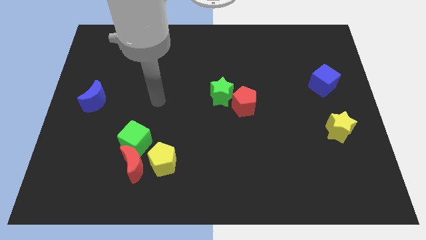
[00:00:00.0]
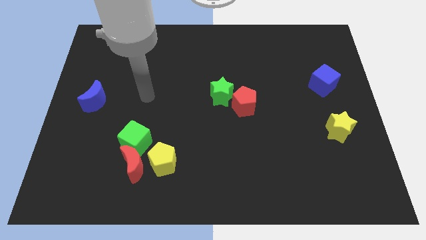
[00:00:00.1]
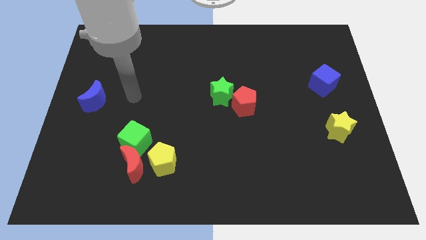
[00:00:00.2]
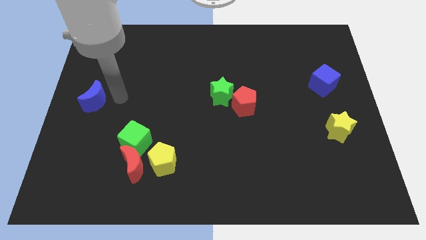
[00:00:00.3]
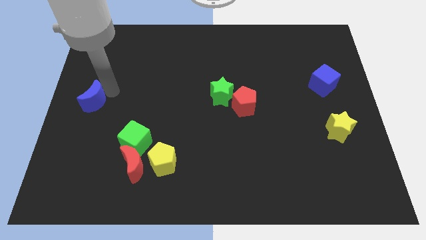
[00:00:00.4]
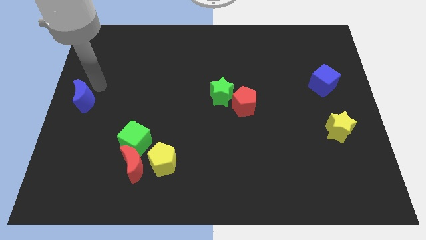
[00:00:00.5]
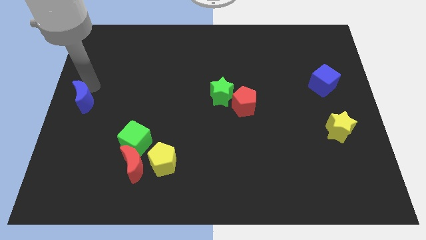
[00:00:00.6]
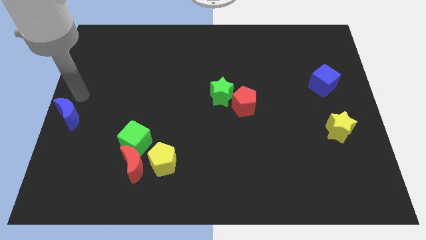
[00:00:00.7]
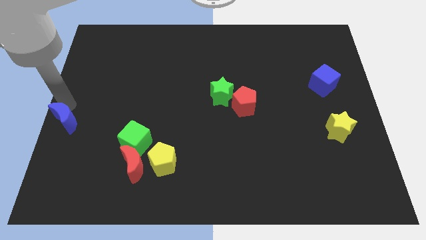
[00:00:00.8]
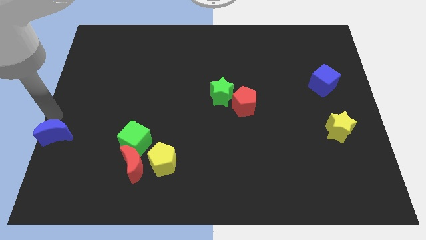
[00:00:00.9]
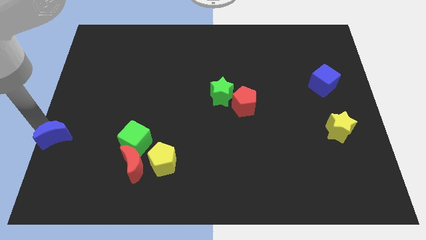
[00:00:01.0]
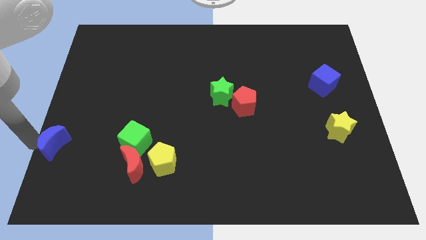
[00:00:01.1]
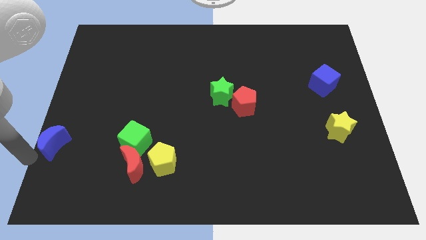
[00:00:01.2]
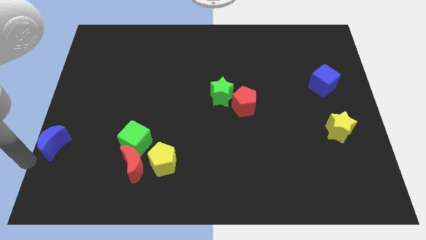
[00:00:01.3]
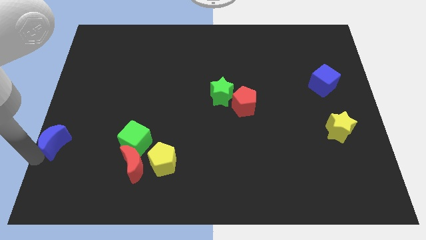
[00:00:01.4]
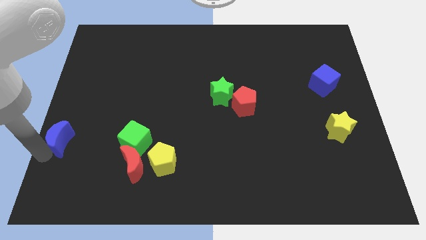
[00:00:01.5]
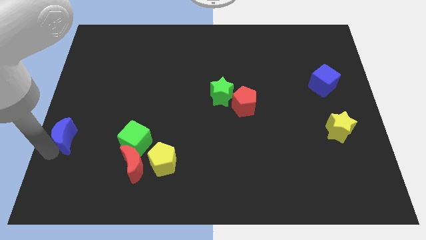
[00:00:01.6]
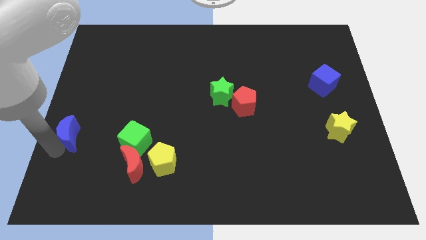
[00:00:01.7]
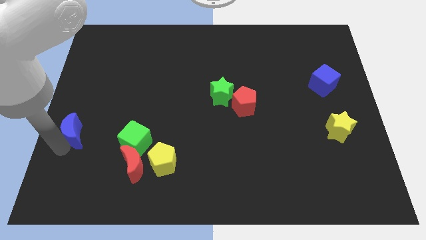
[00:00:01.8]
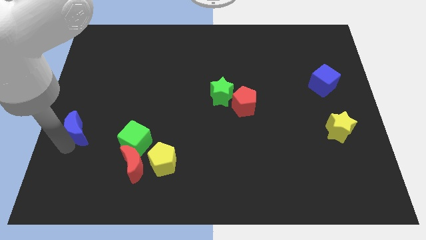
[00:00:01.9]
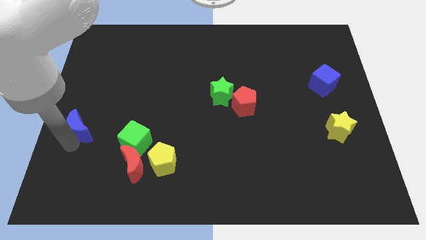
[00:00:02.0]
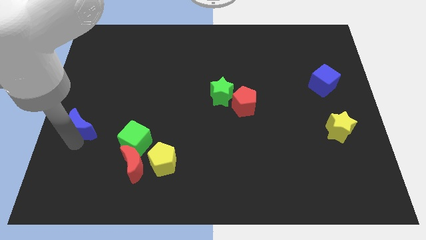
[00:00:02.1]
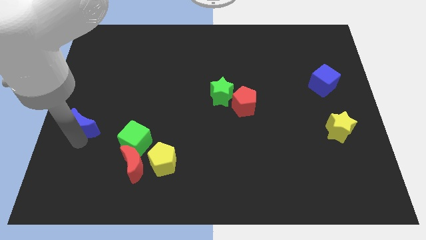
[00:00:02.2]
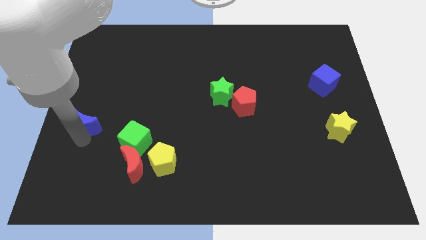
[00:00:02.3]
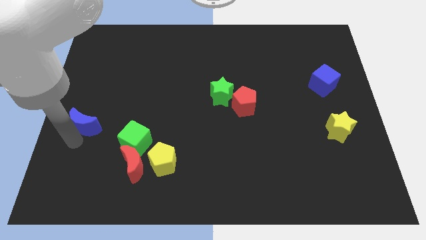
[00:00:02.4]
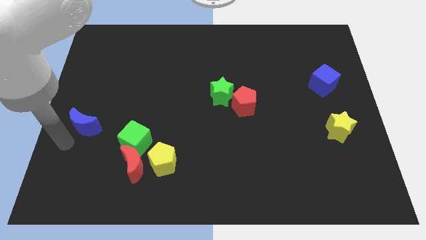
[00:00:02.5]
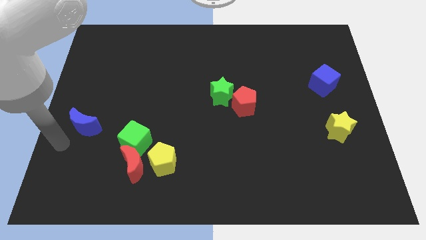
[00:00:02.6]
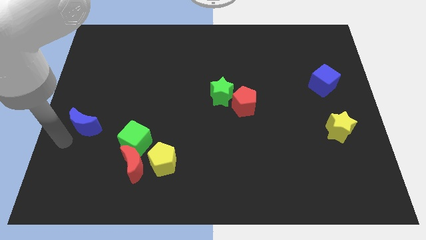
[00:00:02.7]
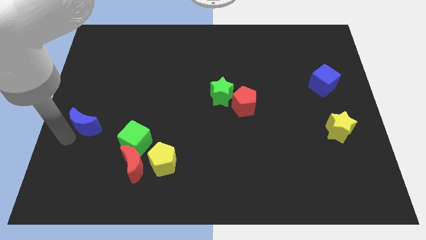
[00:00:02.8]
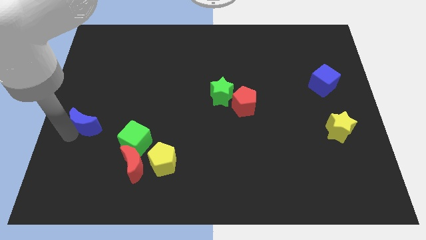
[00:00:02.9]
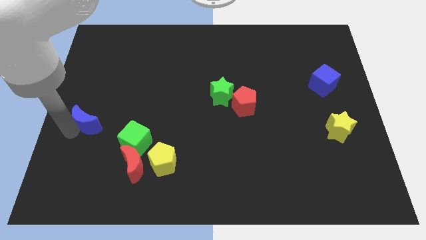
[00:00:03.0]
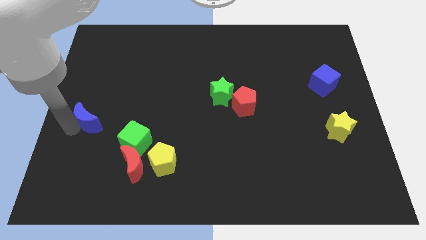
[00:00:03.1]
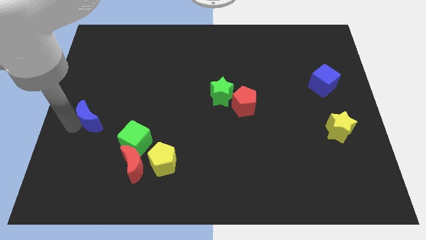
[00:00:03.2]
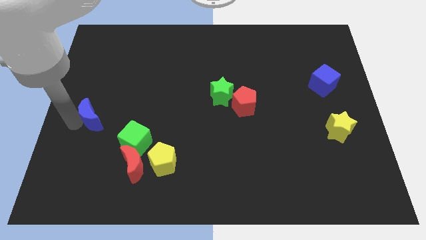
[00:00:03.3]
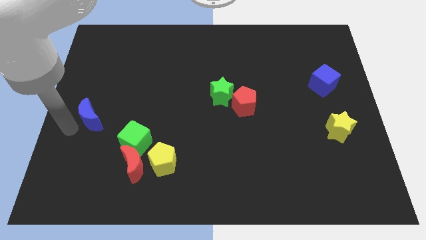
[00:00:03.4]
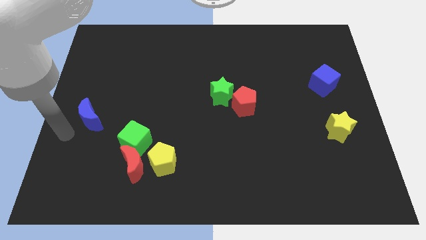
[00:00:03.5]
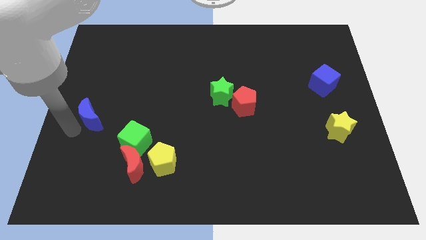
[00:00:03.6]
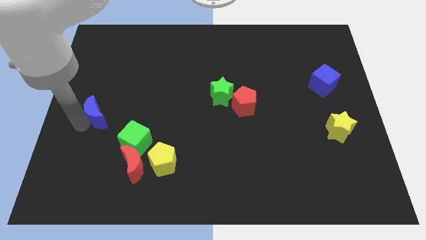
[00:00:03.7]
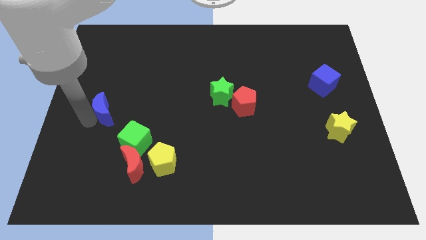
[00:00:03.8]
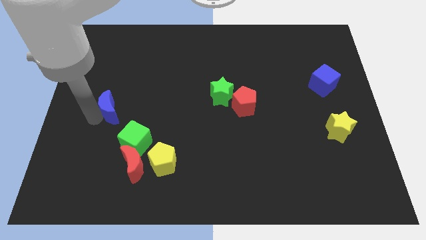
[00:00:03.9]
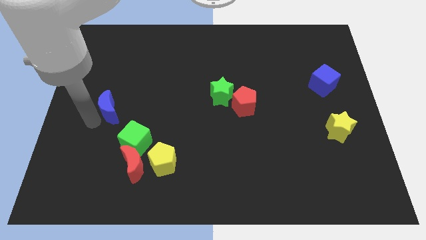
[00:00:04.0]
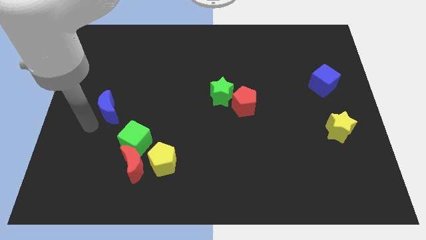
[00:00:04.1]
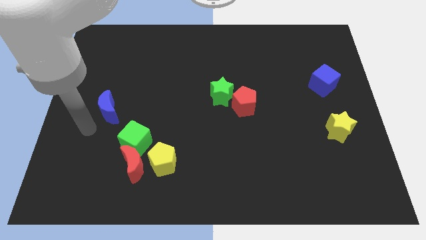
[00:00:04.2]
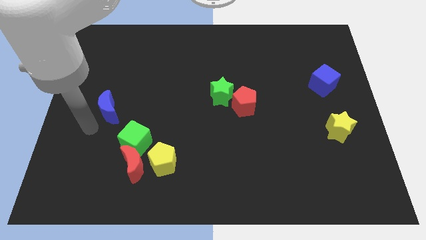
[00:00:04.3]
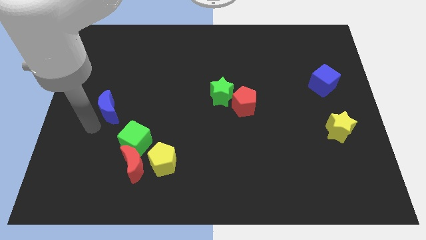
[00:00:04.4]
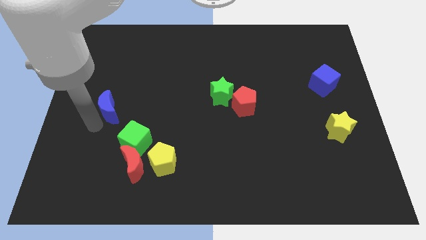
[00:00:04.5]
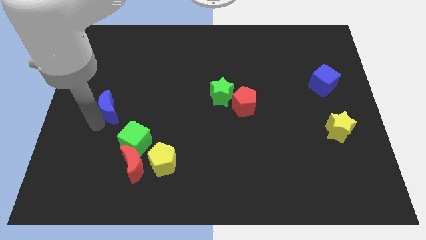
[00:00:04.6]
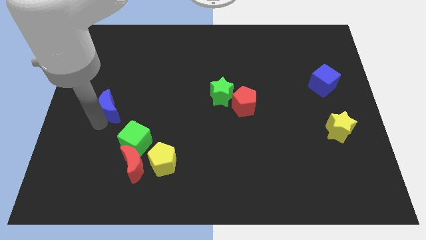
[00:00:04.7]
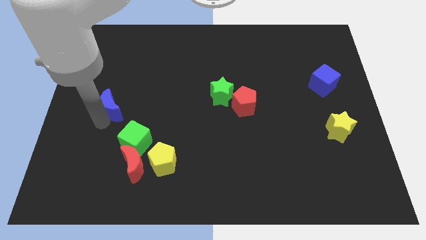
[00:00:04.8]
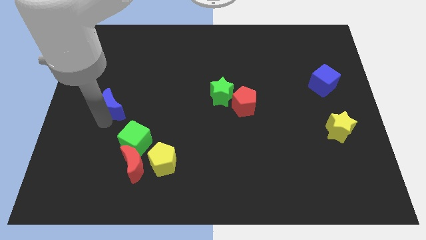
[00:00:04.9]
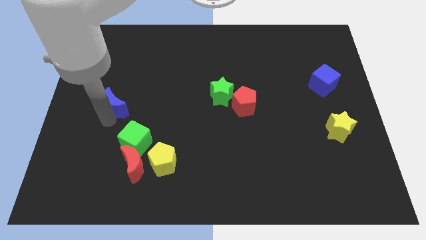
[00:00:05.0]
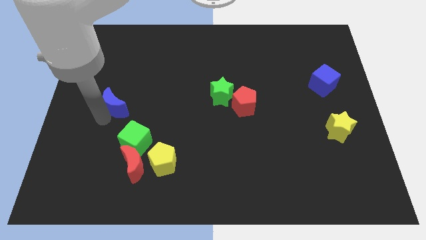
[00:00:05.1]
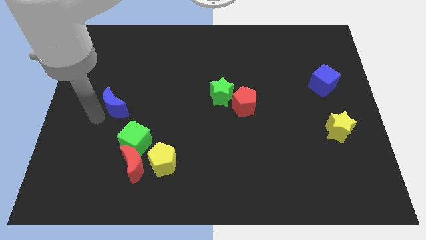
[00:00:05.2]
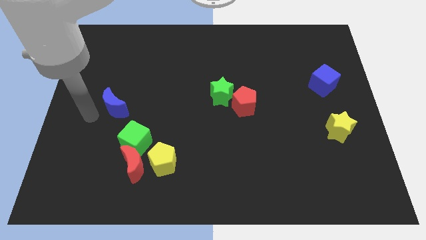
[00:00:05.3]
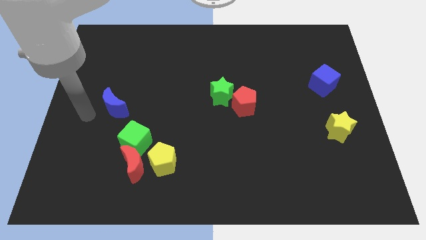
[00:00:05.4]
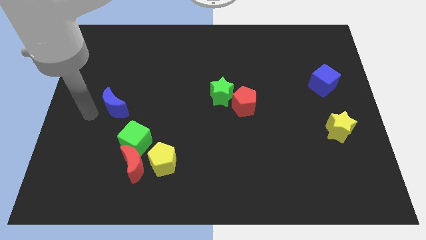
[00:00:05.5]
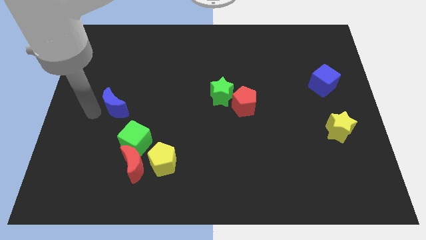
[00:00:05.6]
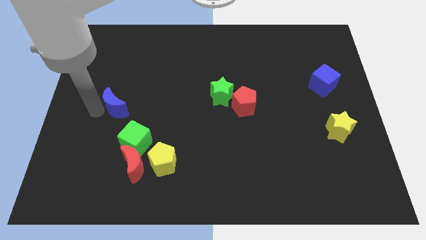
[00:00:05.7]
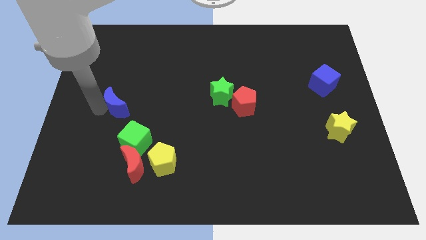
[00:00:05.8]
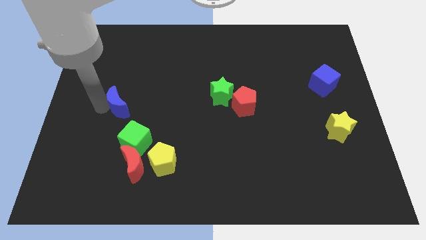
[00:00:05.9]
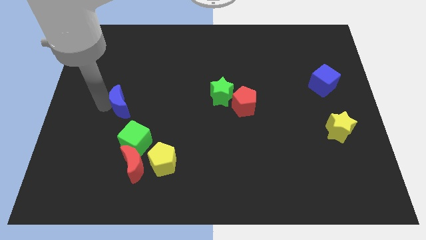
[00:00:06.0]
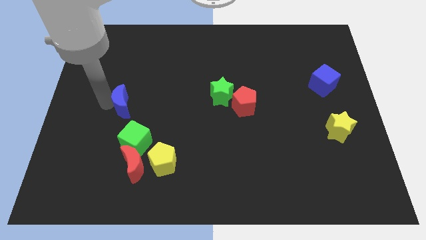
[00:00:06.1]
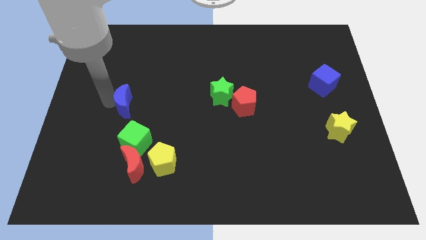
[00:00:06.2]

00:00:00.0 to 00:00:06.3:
slide the blue moon to the right a bit

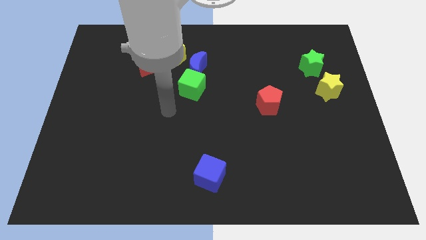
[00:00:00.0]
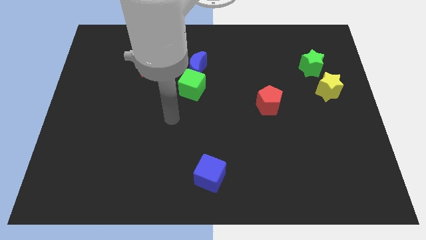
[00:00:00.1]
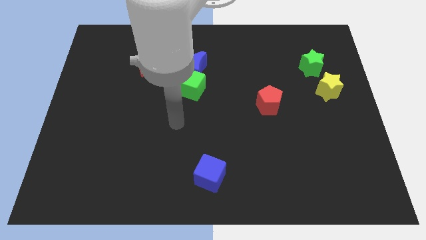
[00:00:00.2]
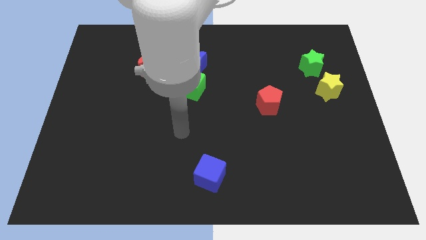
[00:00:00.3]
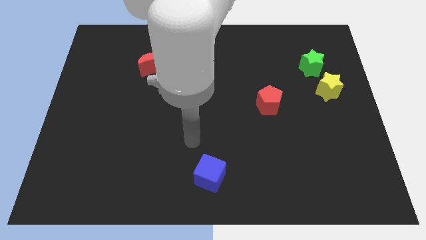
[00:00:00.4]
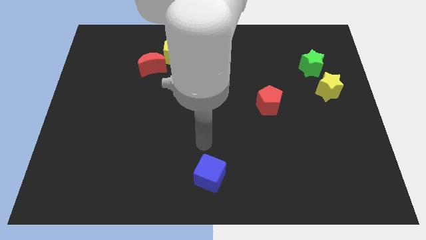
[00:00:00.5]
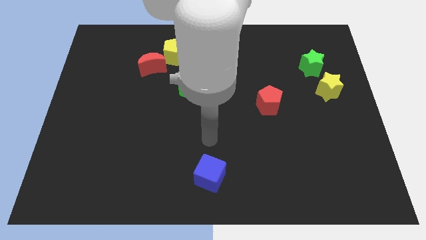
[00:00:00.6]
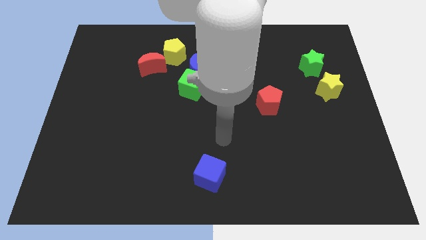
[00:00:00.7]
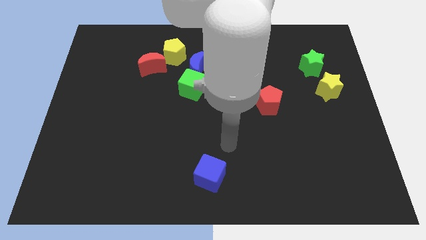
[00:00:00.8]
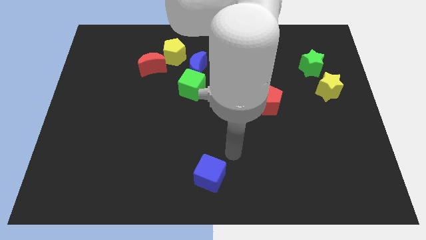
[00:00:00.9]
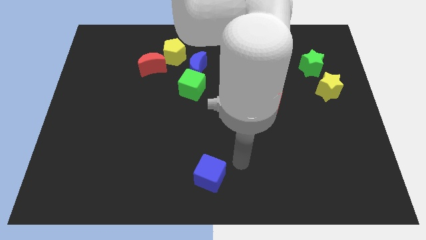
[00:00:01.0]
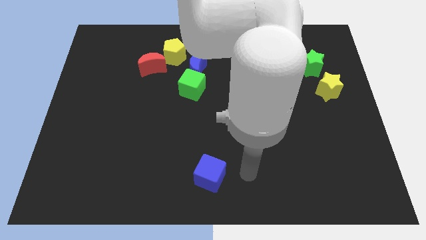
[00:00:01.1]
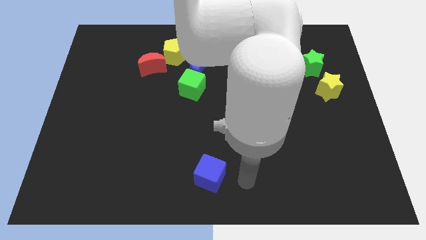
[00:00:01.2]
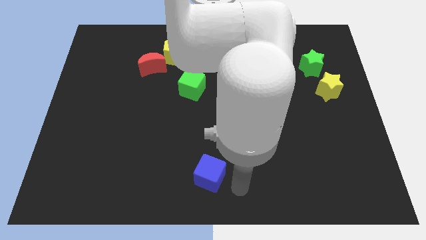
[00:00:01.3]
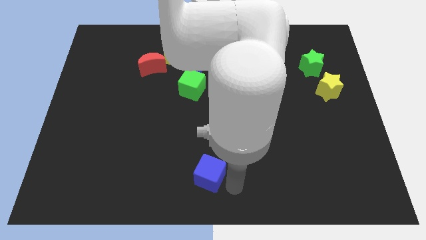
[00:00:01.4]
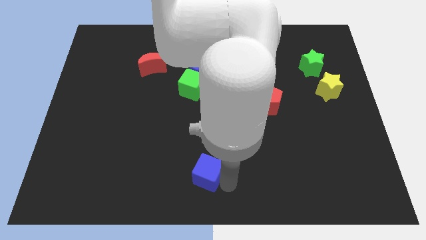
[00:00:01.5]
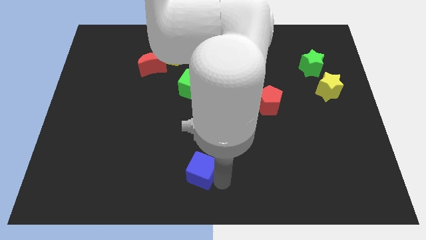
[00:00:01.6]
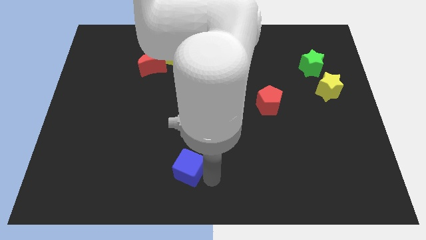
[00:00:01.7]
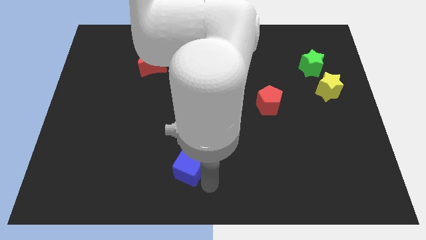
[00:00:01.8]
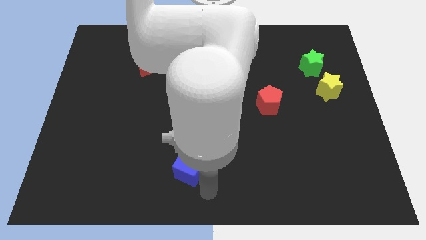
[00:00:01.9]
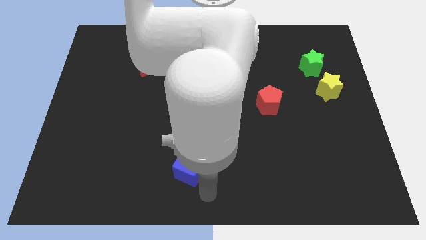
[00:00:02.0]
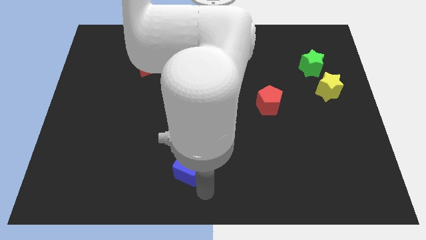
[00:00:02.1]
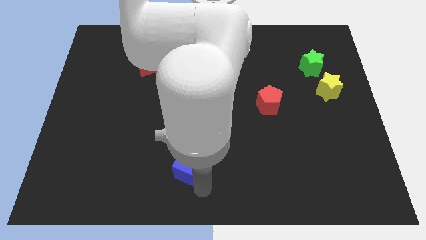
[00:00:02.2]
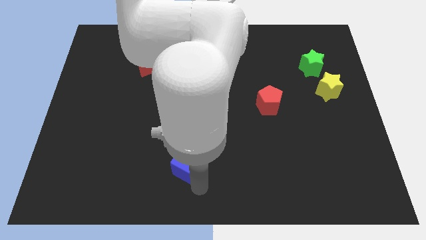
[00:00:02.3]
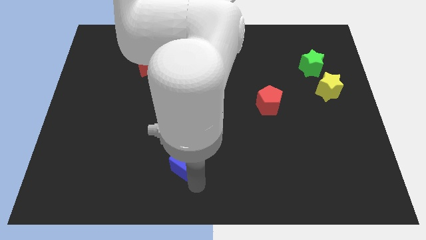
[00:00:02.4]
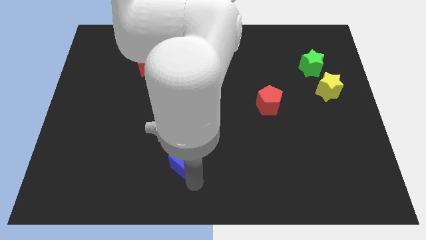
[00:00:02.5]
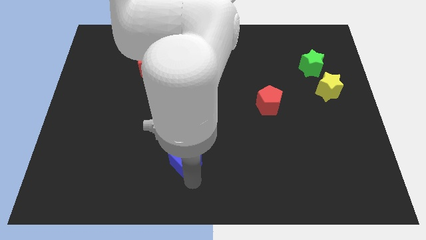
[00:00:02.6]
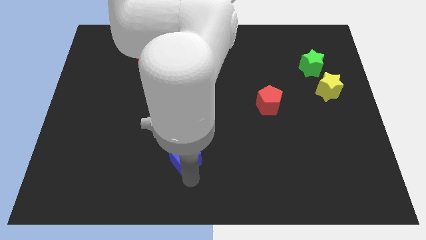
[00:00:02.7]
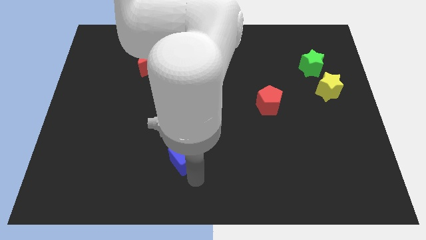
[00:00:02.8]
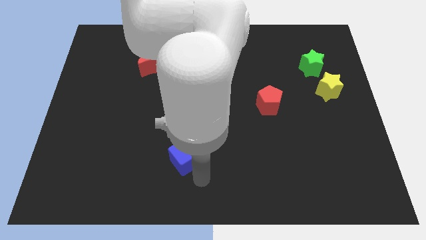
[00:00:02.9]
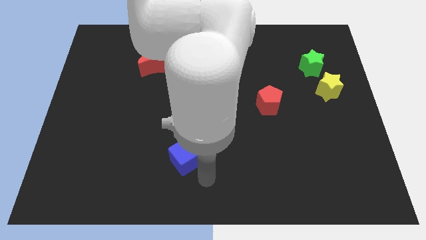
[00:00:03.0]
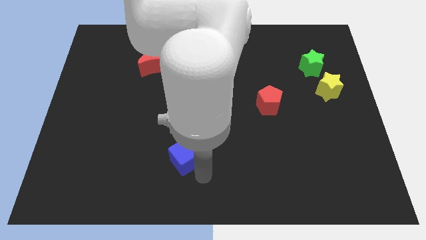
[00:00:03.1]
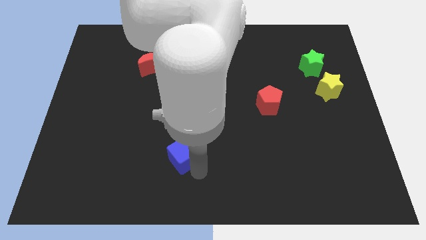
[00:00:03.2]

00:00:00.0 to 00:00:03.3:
move the blue cube diagonally up and left a little bit
